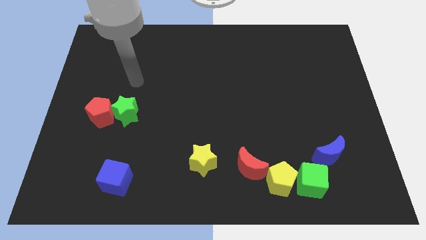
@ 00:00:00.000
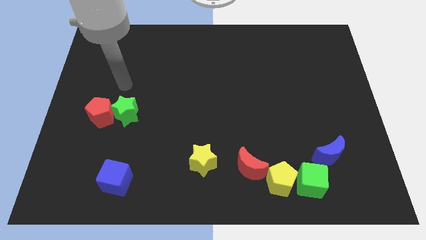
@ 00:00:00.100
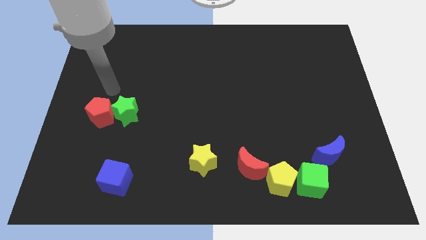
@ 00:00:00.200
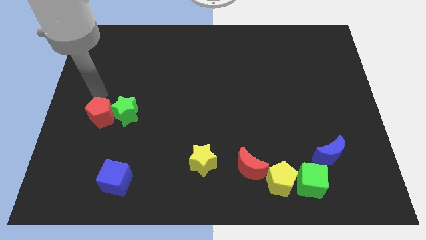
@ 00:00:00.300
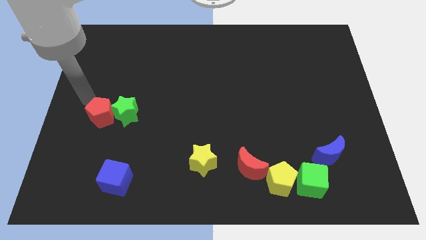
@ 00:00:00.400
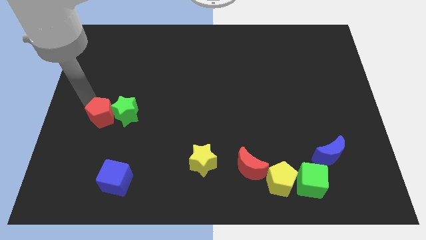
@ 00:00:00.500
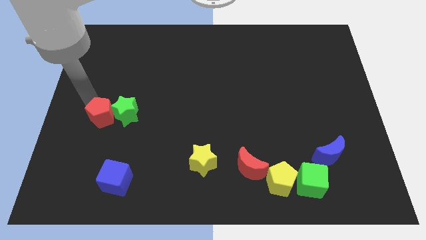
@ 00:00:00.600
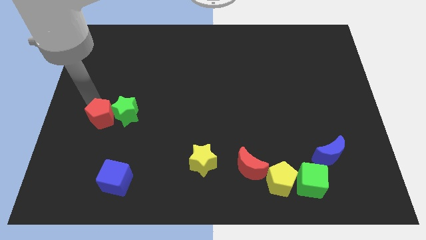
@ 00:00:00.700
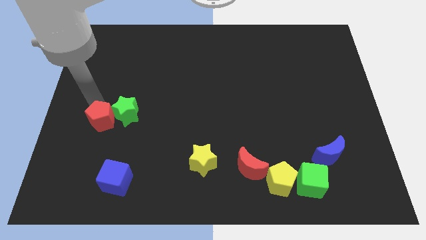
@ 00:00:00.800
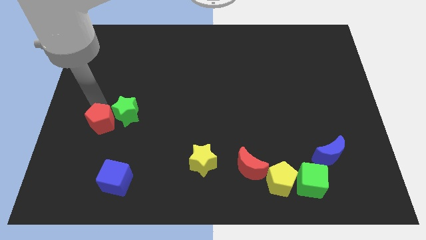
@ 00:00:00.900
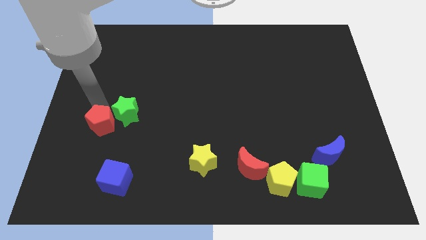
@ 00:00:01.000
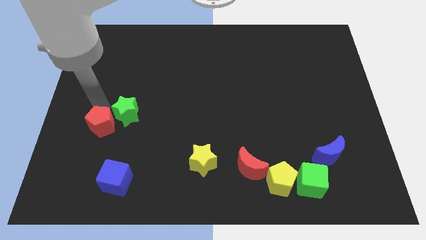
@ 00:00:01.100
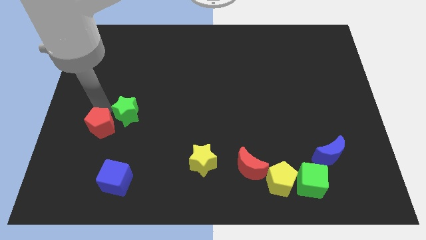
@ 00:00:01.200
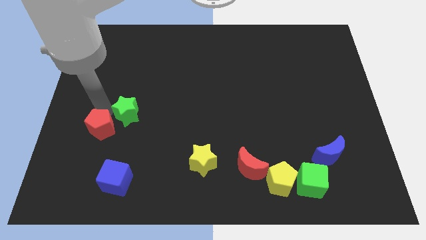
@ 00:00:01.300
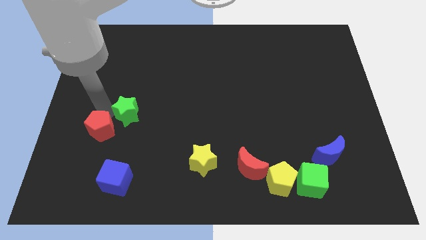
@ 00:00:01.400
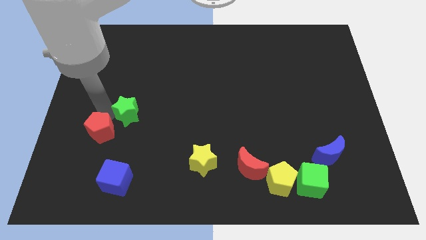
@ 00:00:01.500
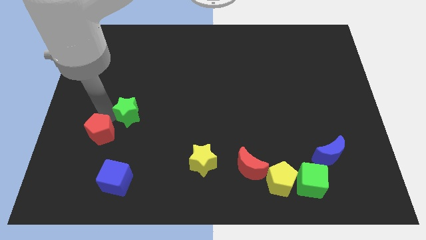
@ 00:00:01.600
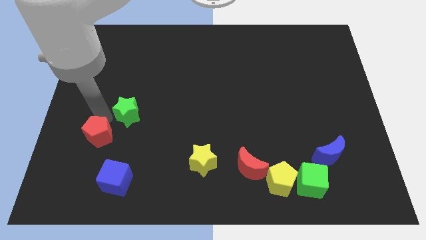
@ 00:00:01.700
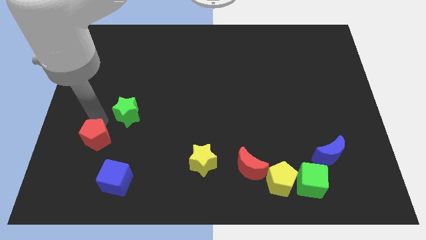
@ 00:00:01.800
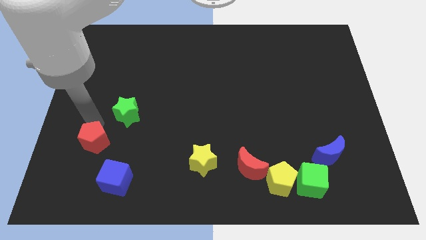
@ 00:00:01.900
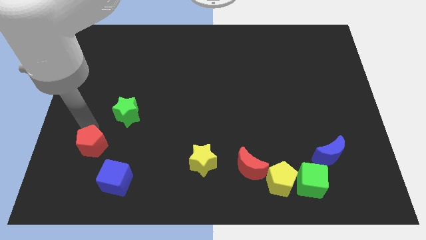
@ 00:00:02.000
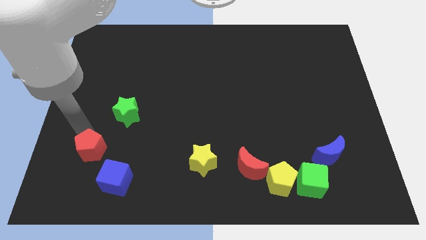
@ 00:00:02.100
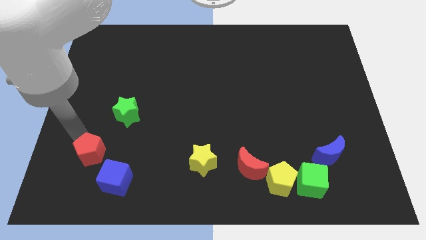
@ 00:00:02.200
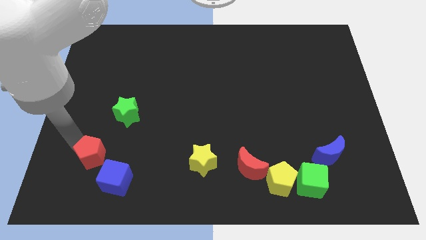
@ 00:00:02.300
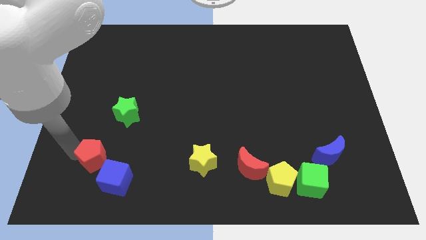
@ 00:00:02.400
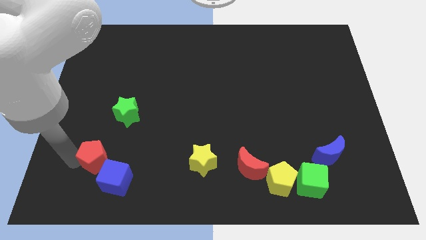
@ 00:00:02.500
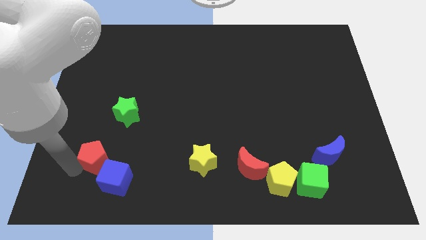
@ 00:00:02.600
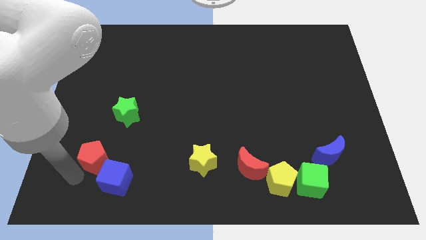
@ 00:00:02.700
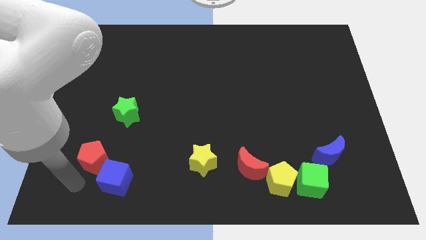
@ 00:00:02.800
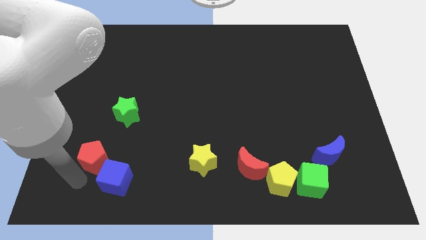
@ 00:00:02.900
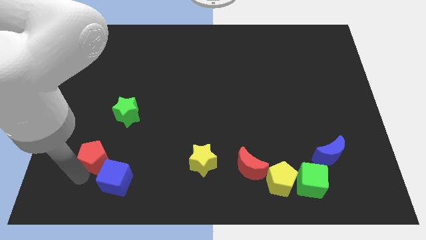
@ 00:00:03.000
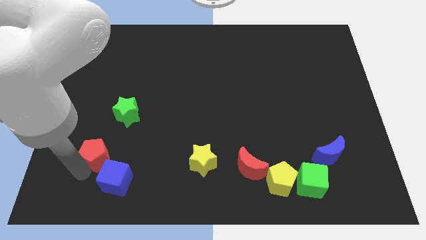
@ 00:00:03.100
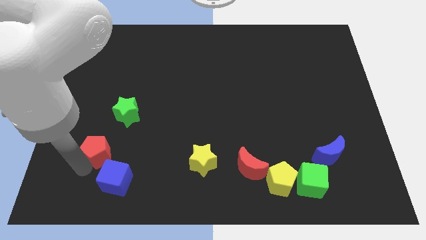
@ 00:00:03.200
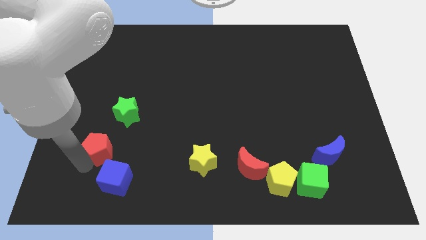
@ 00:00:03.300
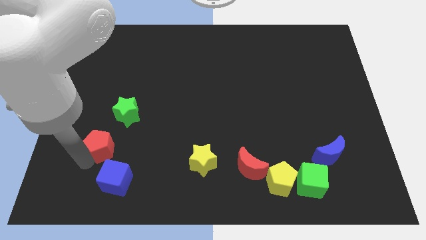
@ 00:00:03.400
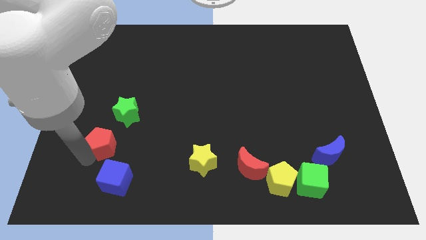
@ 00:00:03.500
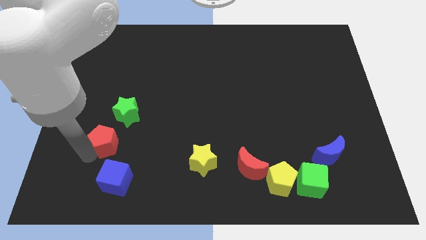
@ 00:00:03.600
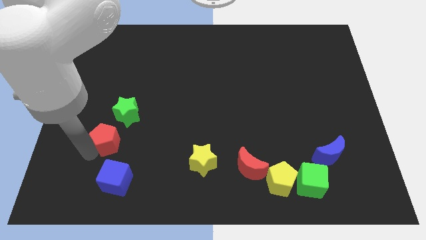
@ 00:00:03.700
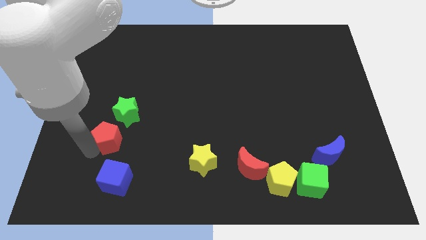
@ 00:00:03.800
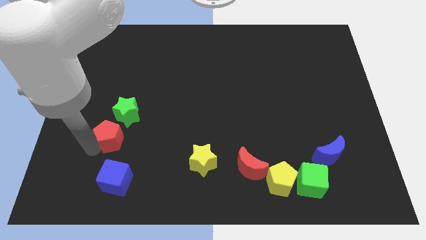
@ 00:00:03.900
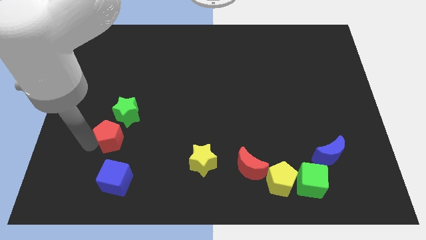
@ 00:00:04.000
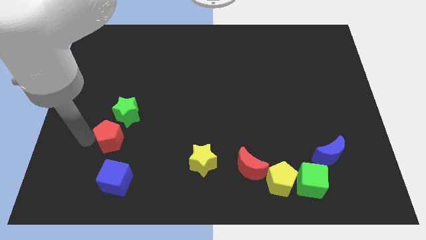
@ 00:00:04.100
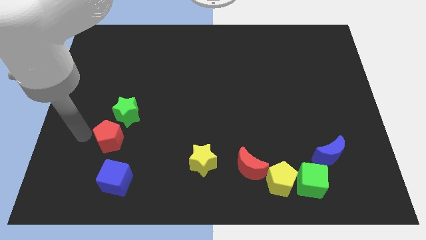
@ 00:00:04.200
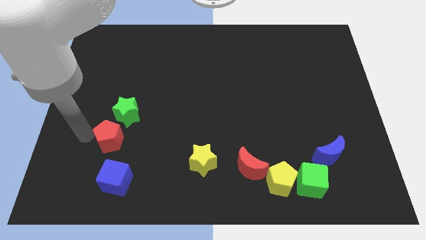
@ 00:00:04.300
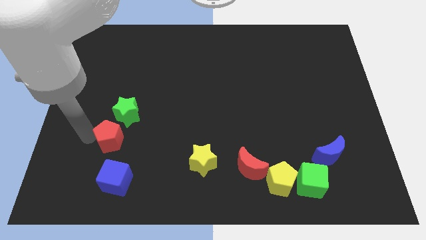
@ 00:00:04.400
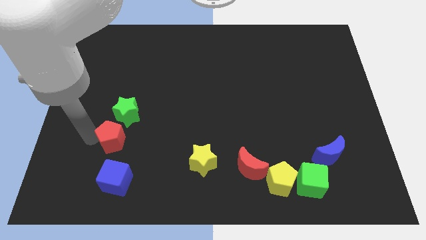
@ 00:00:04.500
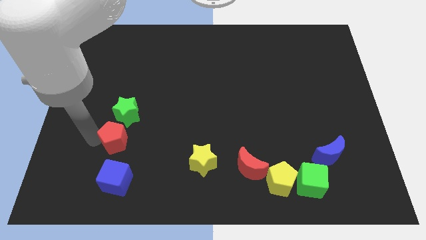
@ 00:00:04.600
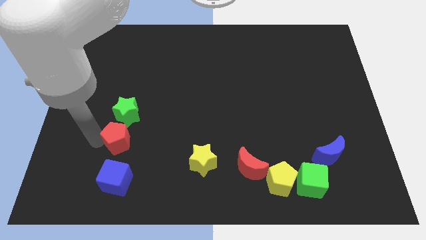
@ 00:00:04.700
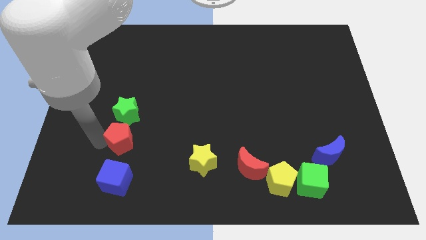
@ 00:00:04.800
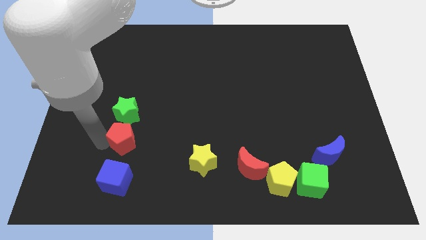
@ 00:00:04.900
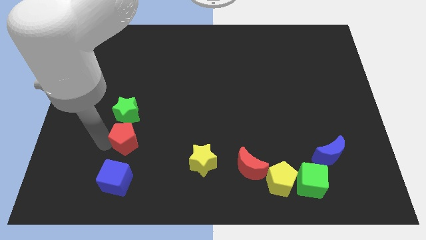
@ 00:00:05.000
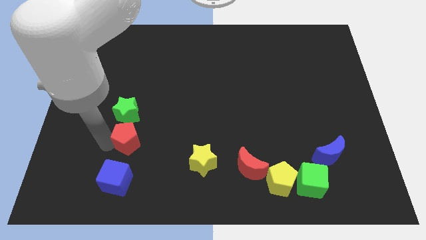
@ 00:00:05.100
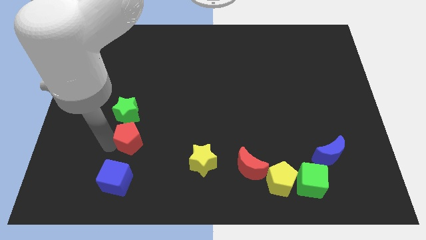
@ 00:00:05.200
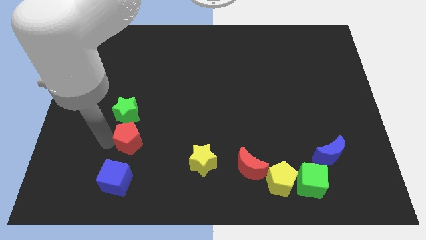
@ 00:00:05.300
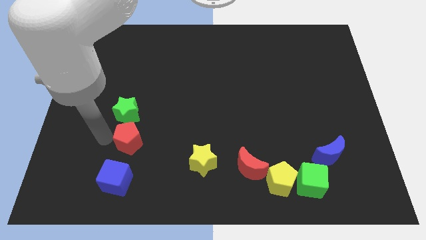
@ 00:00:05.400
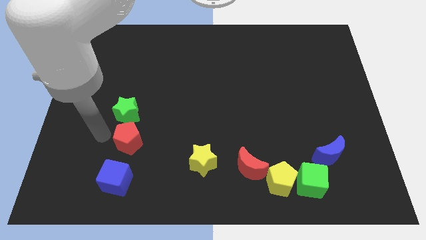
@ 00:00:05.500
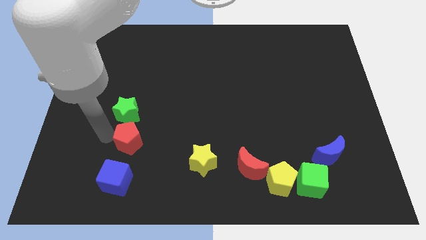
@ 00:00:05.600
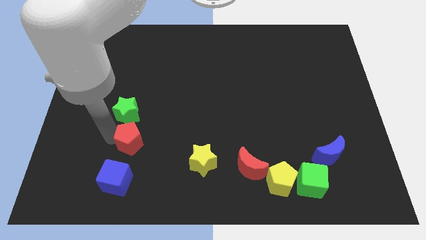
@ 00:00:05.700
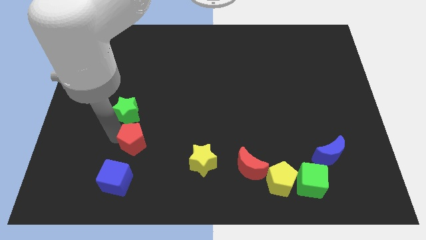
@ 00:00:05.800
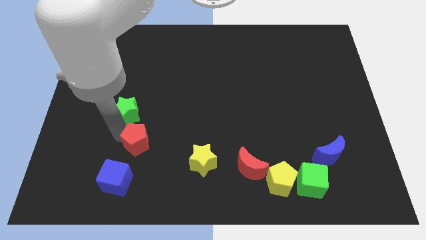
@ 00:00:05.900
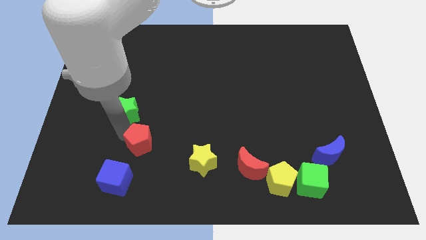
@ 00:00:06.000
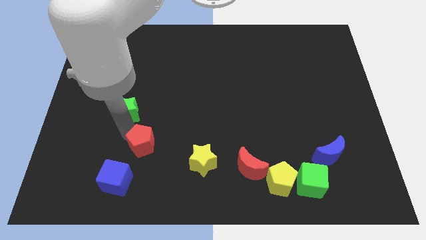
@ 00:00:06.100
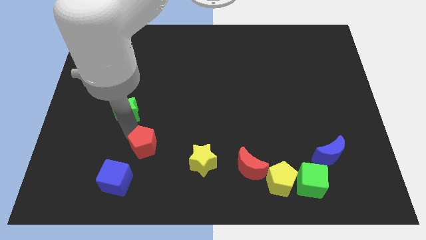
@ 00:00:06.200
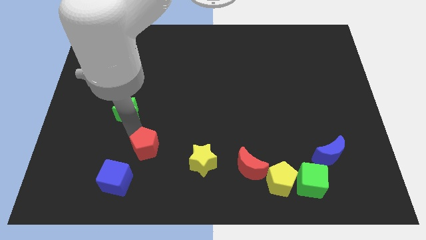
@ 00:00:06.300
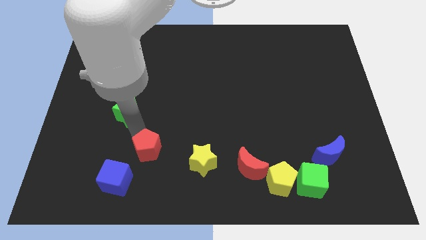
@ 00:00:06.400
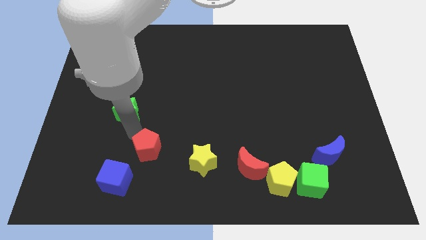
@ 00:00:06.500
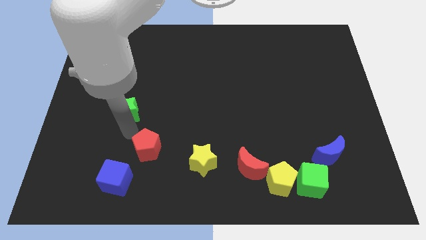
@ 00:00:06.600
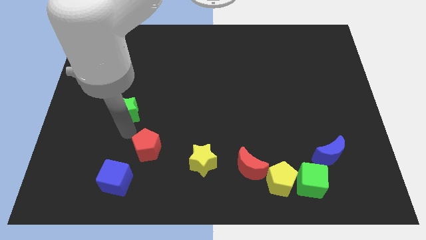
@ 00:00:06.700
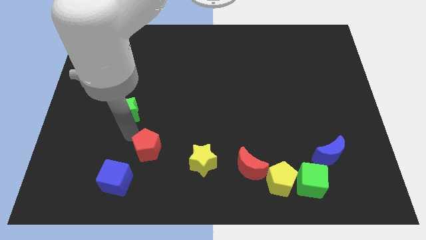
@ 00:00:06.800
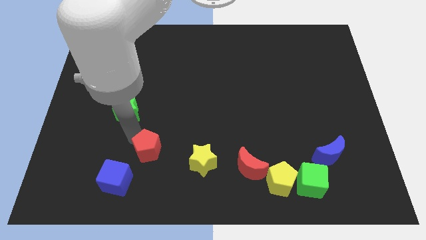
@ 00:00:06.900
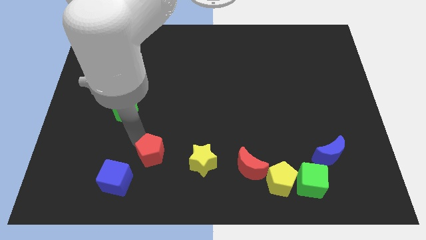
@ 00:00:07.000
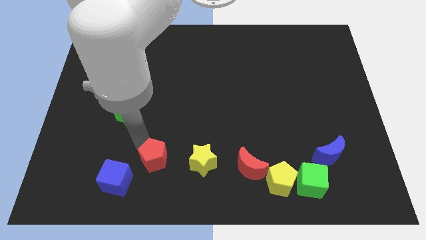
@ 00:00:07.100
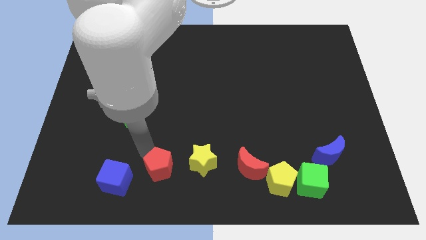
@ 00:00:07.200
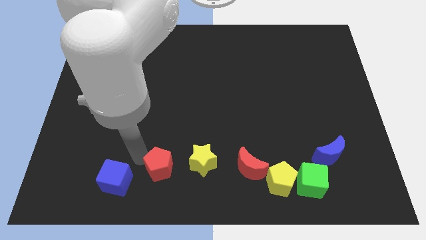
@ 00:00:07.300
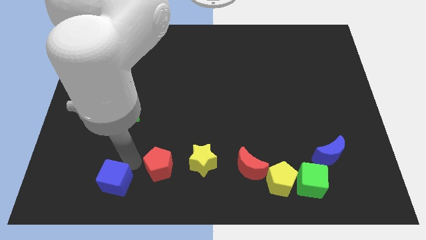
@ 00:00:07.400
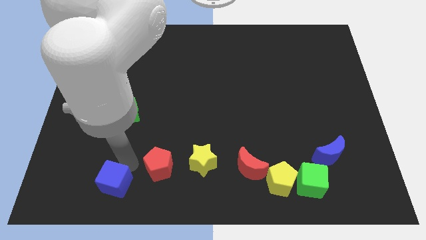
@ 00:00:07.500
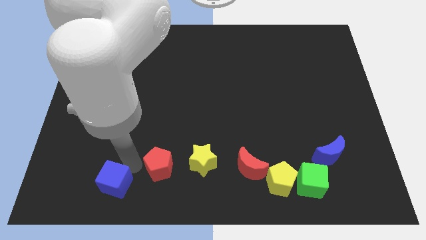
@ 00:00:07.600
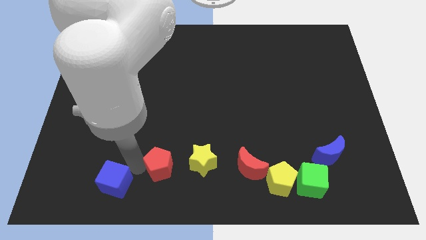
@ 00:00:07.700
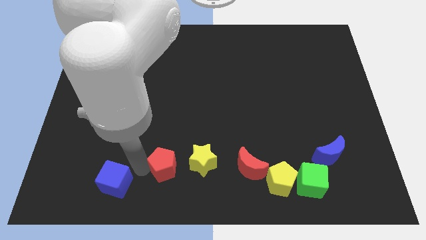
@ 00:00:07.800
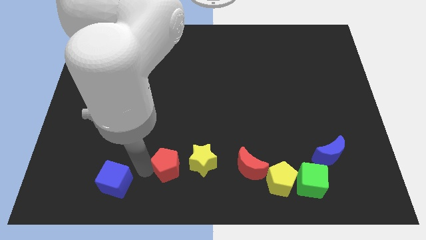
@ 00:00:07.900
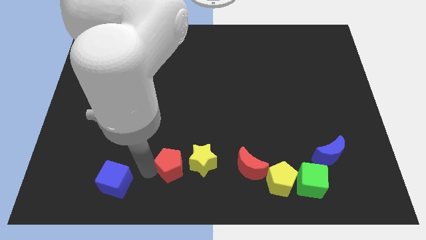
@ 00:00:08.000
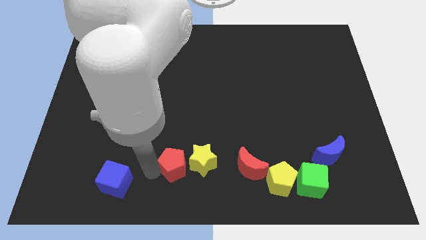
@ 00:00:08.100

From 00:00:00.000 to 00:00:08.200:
put the red pentagon to the left of the red moon
